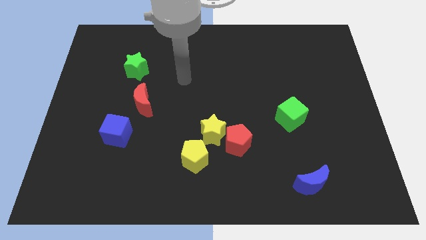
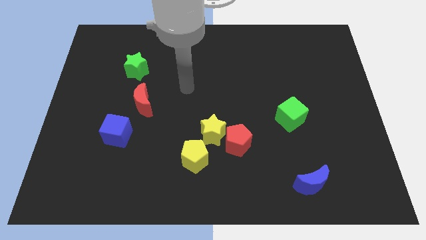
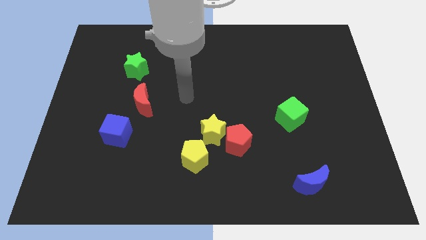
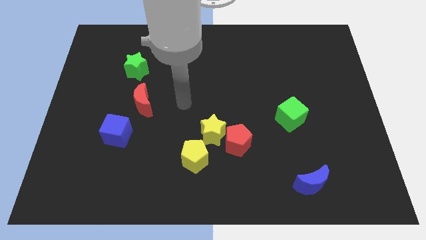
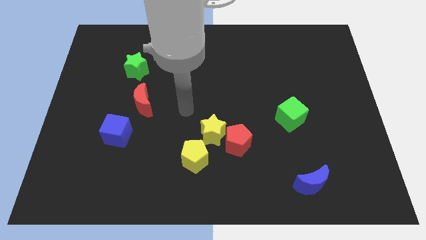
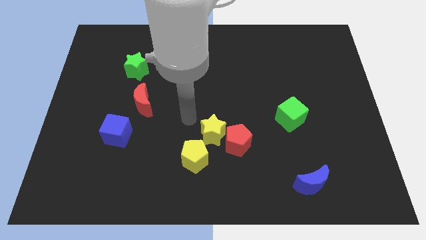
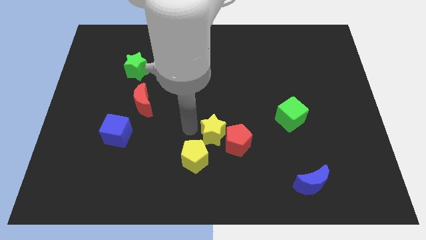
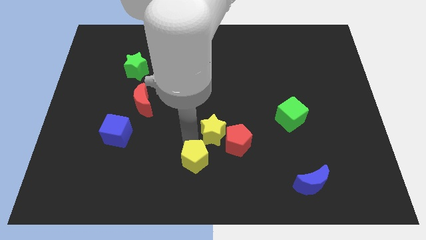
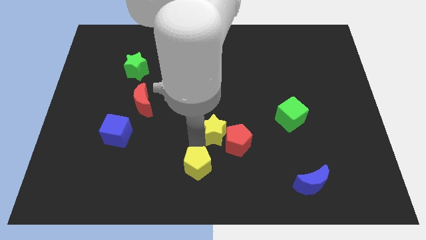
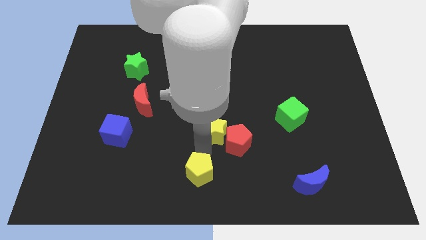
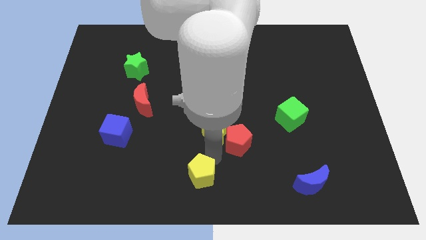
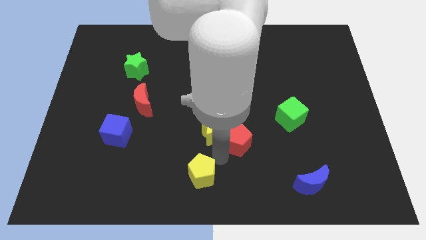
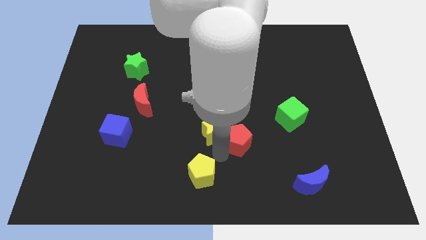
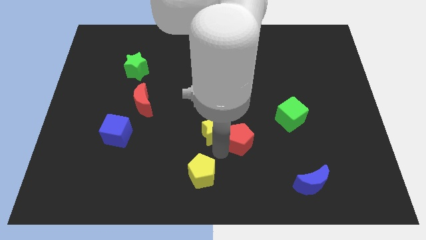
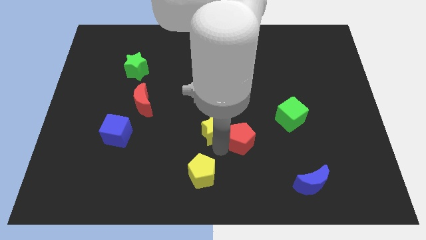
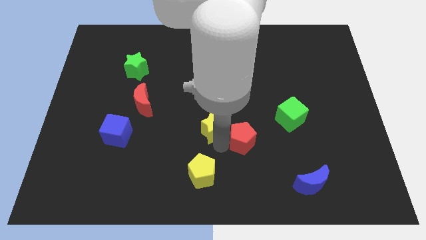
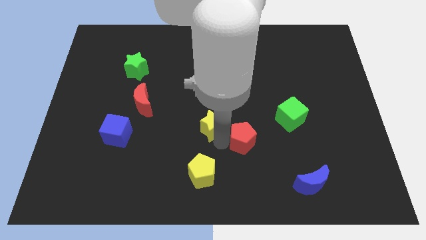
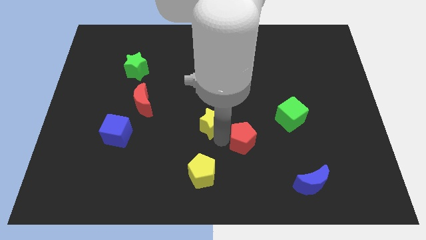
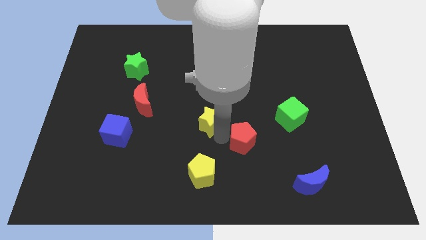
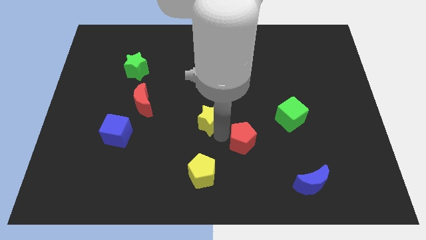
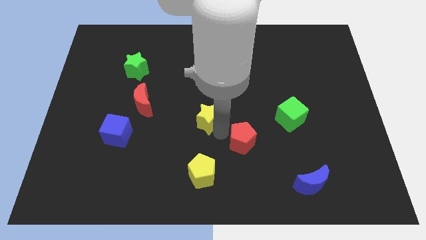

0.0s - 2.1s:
pull the yellow star apart from the red pentagon and yellow pentagon

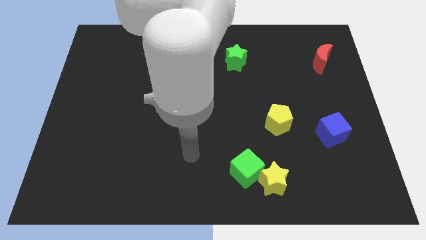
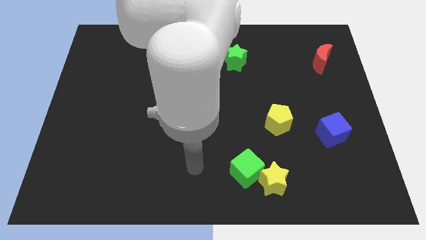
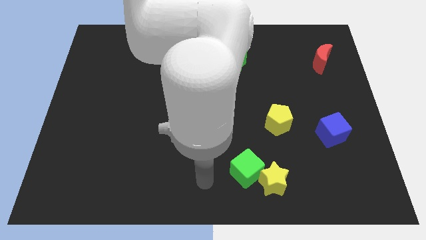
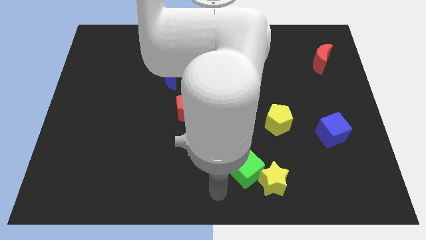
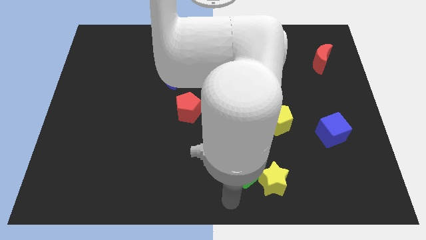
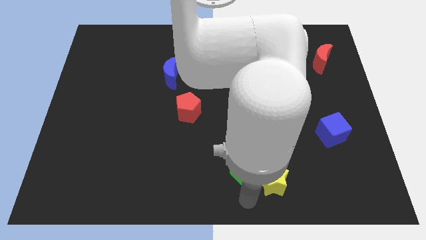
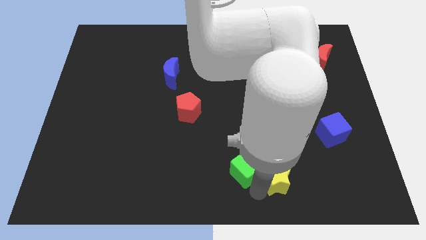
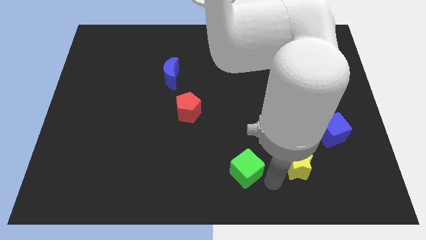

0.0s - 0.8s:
pull the green cube apart from the yellow star

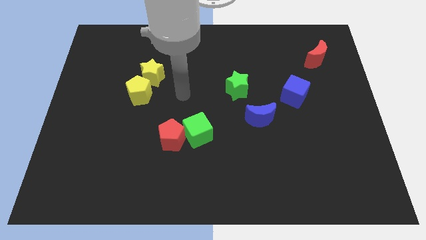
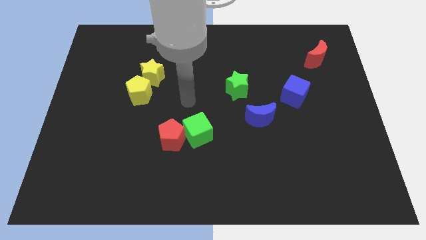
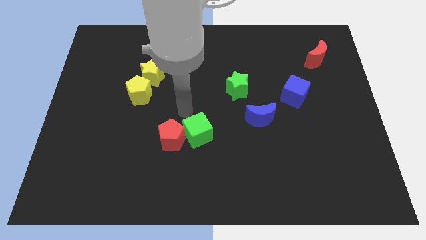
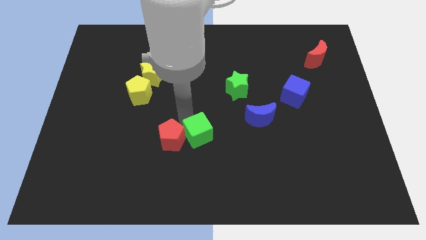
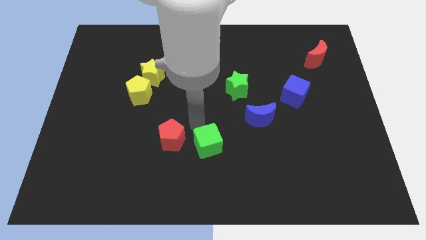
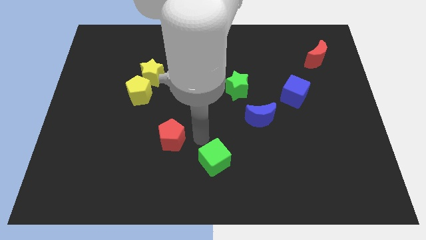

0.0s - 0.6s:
pull the red pentagon apart from the green cube

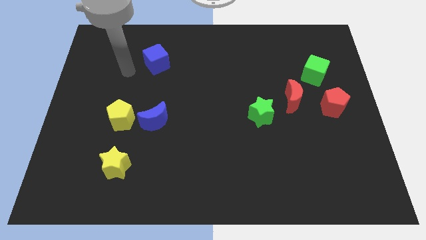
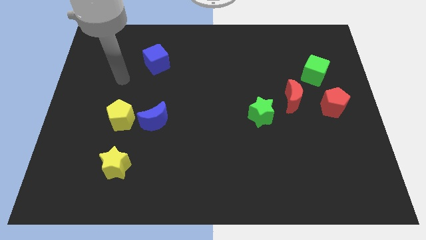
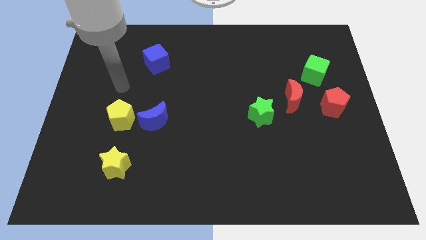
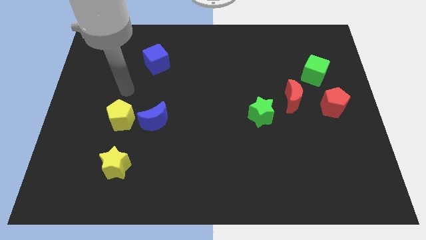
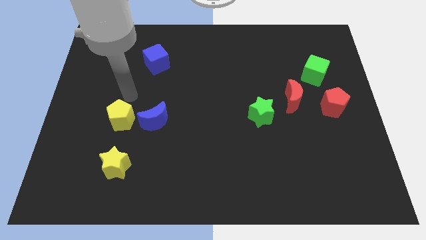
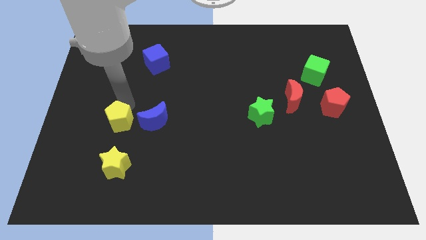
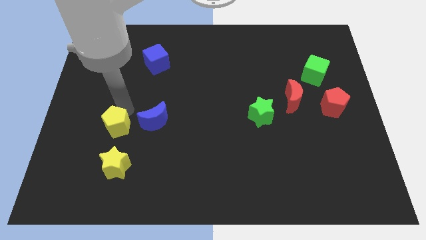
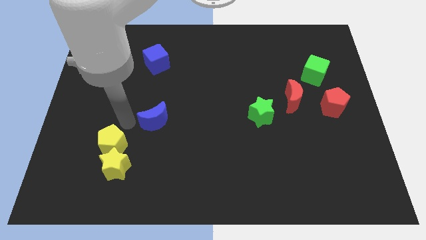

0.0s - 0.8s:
move the blue moon away from the yellow pentagon

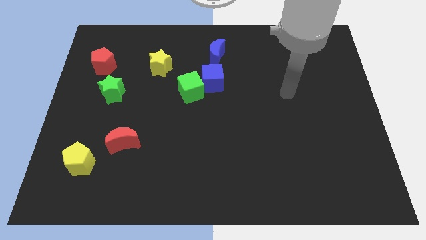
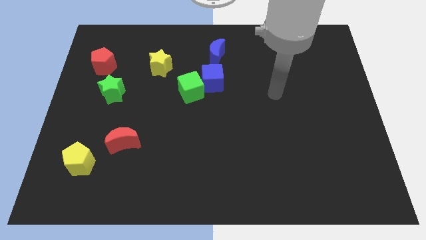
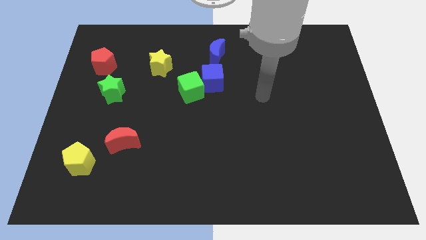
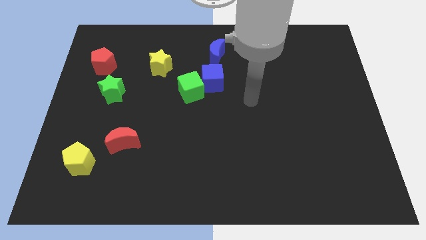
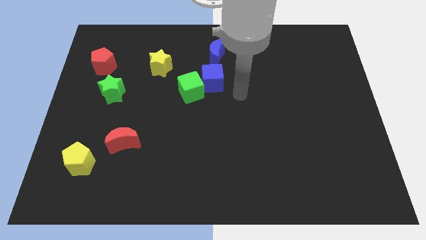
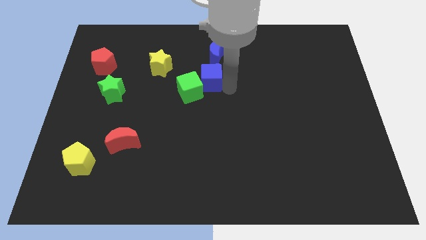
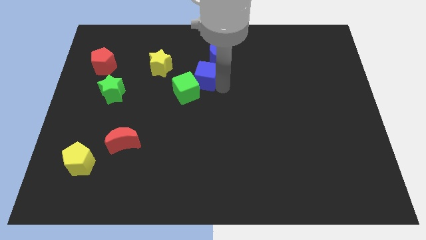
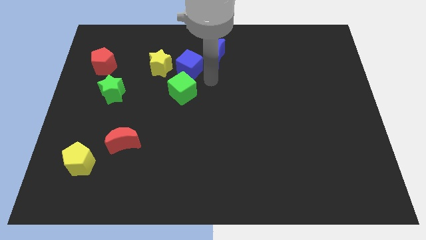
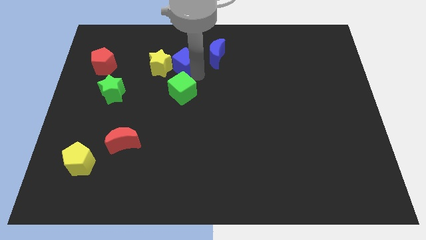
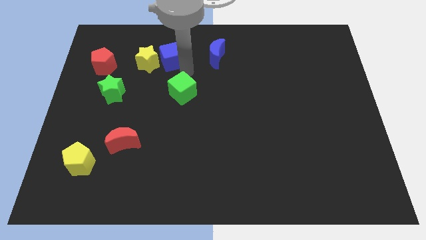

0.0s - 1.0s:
pull the green cube apart from the blue cube

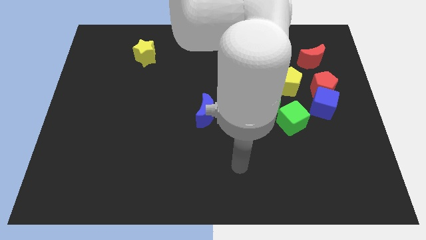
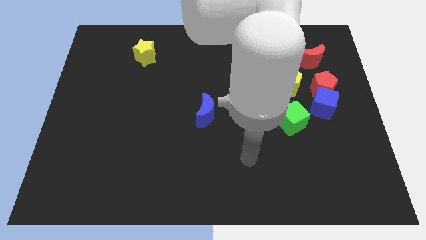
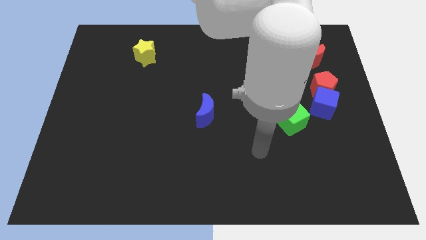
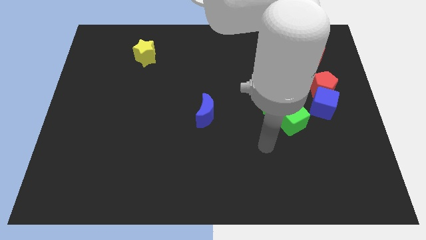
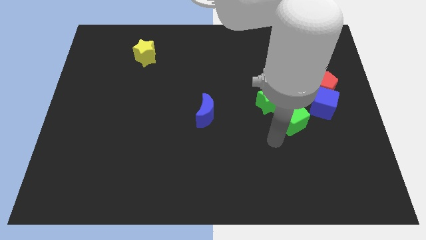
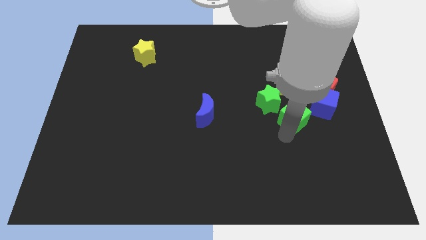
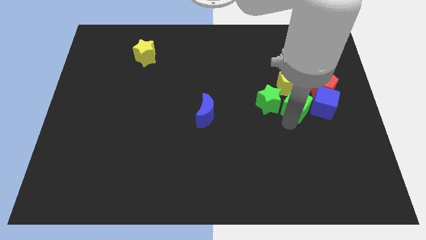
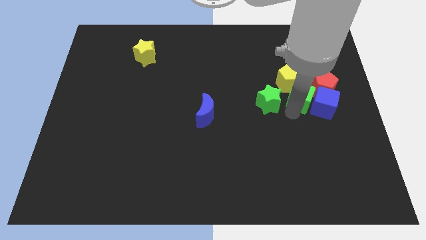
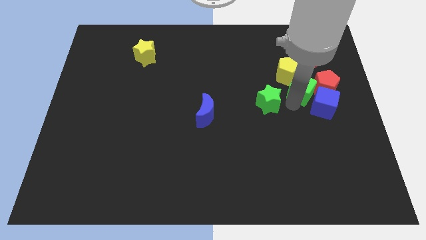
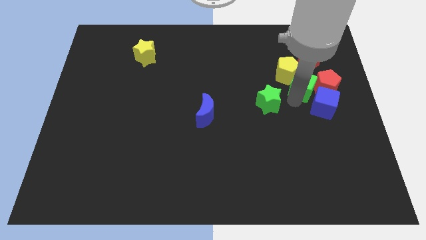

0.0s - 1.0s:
separate the green star from the green cube and yellow pentagon

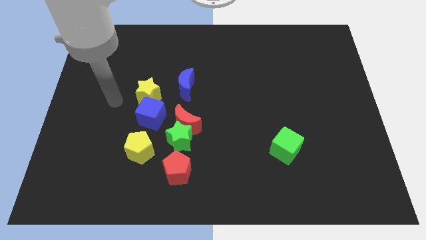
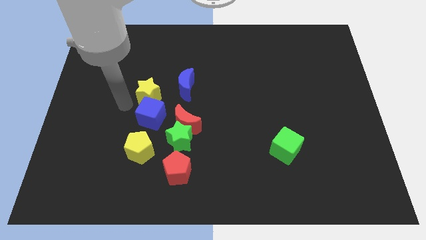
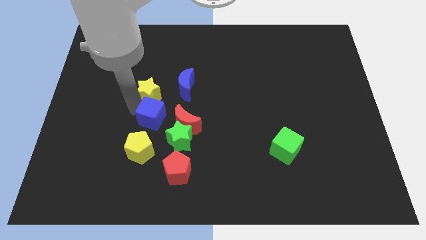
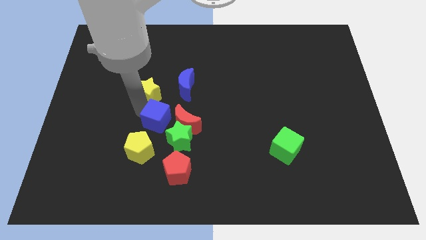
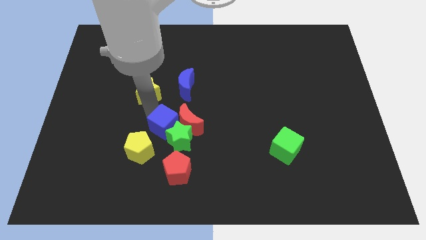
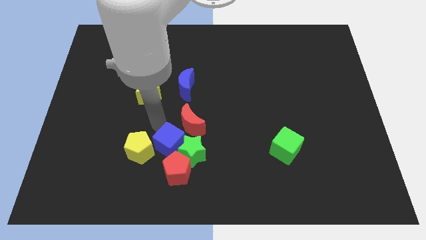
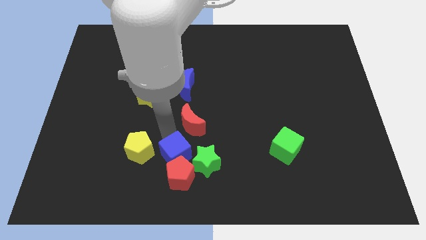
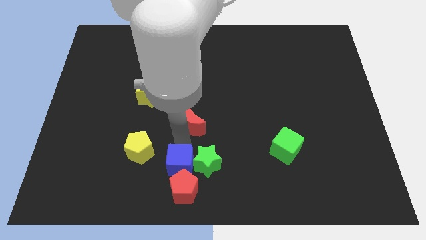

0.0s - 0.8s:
move the red moon away from the green star and blue cube

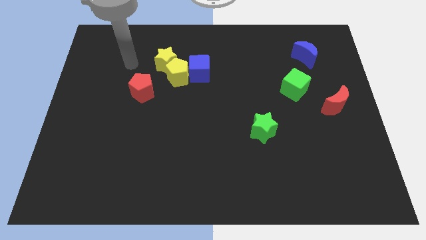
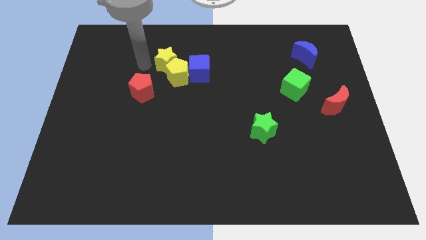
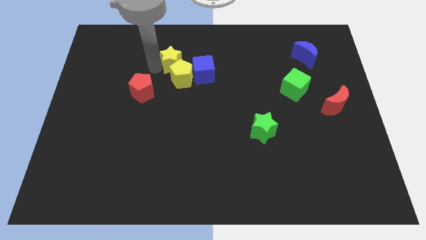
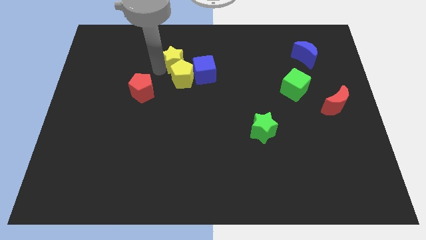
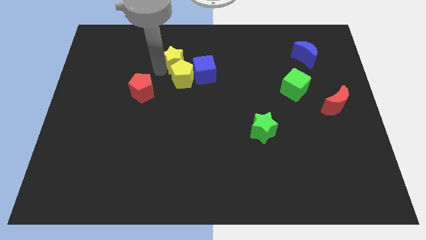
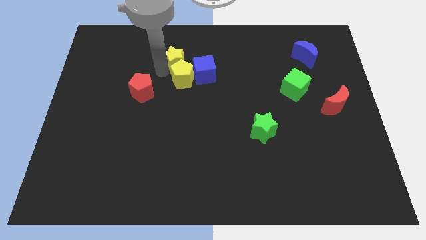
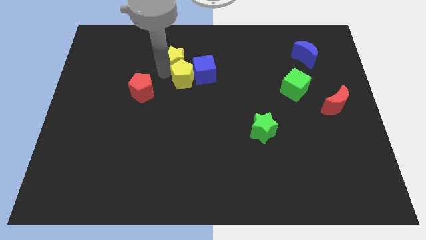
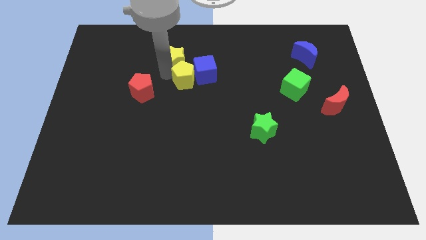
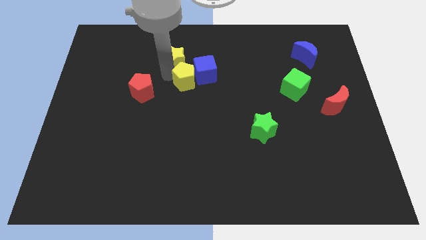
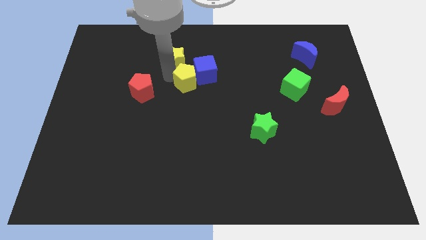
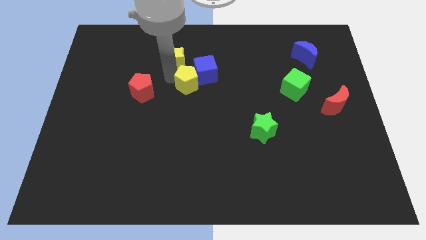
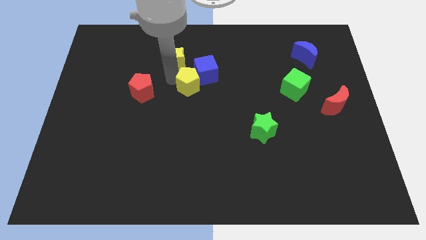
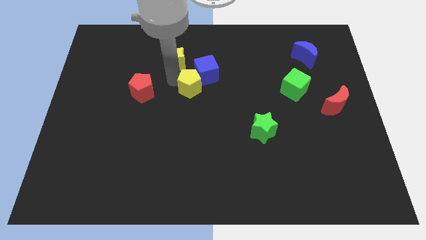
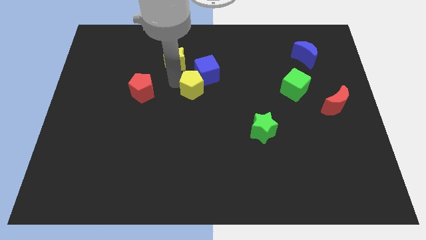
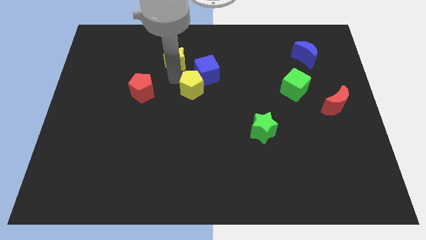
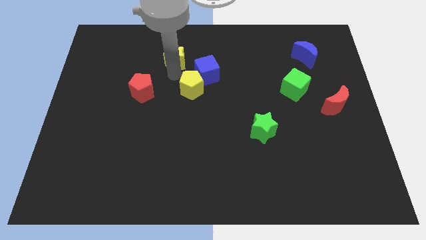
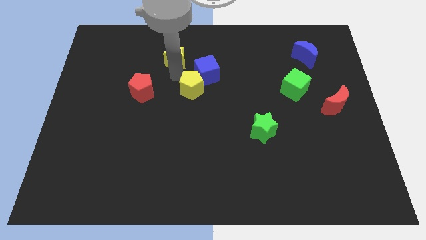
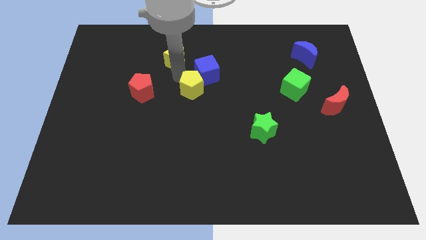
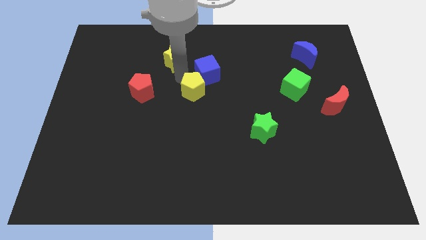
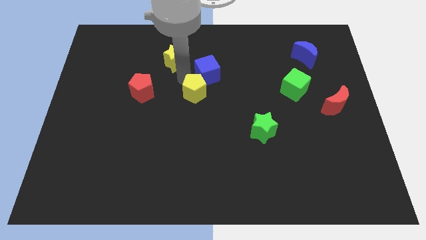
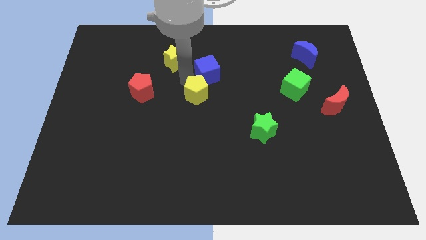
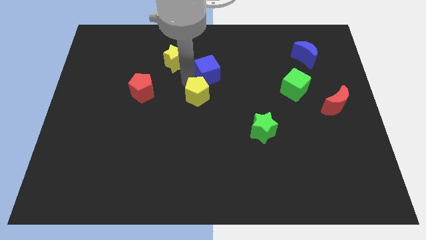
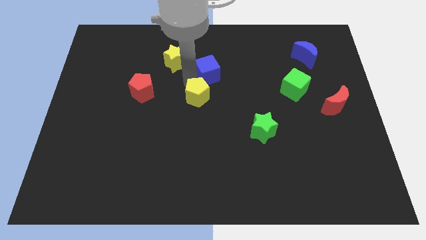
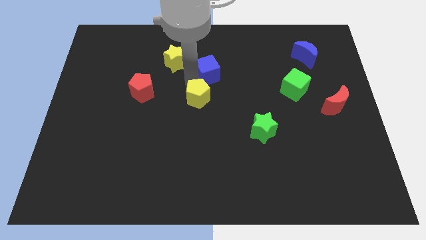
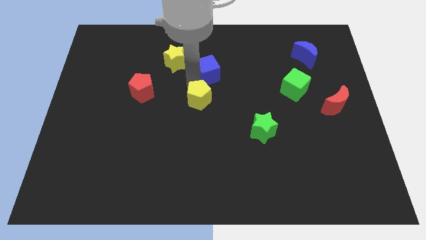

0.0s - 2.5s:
pull the yellow pentagon apart from the yellow star, blue cube, and red pentagon
